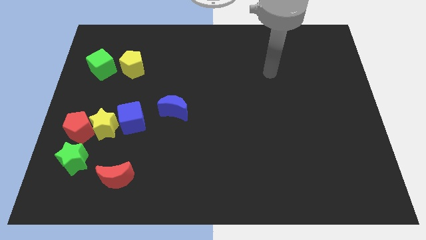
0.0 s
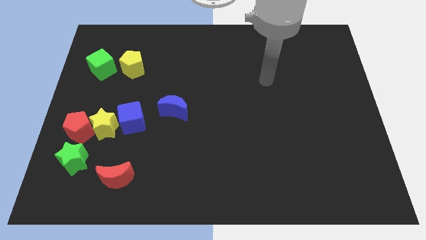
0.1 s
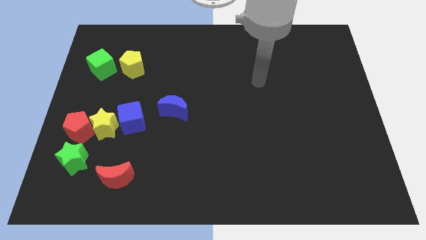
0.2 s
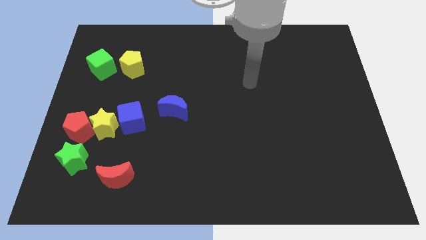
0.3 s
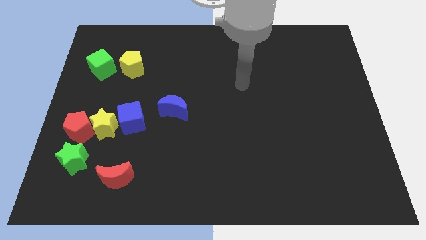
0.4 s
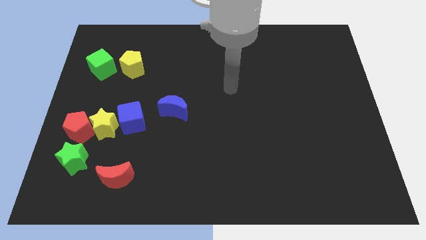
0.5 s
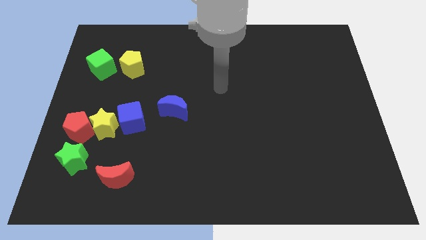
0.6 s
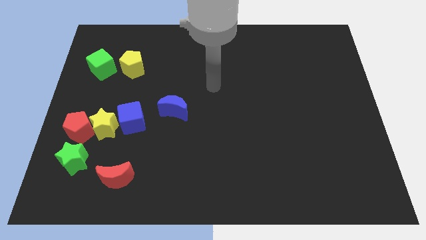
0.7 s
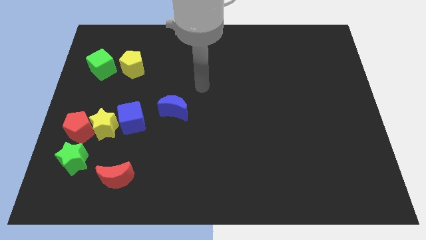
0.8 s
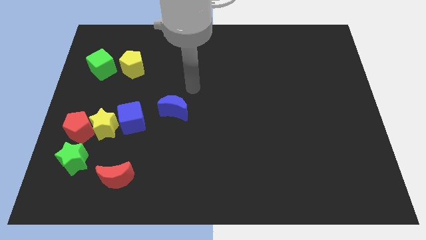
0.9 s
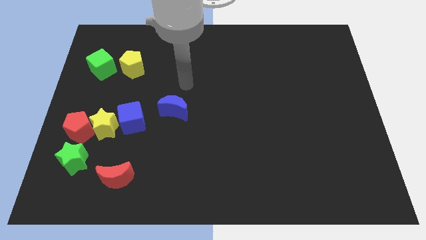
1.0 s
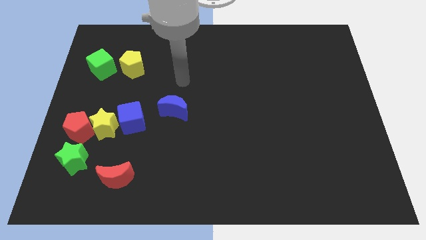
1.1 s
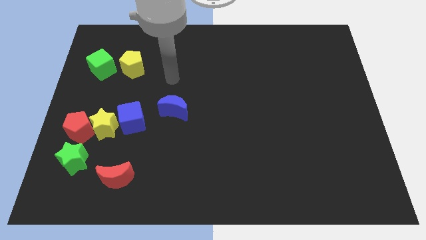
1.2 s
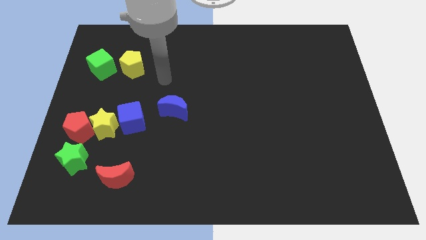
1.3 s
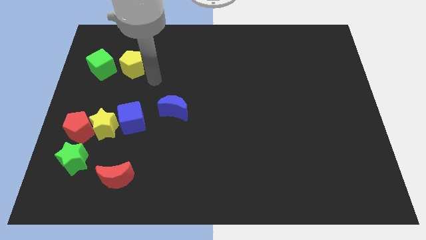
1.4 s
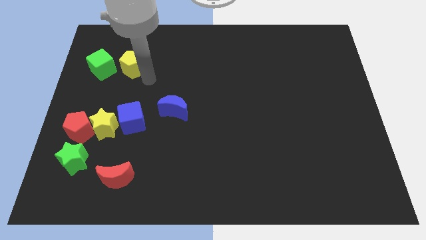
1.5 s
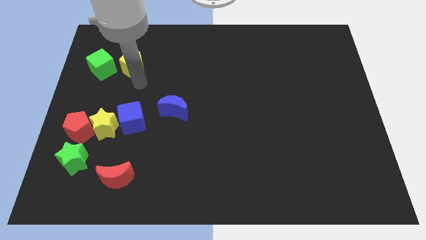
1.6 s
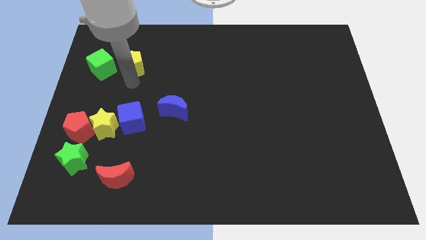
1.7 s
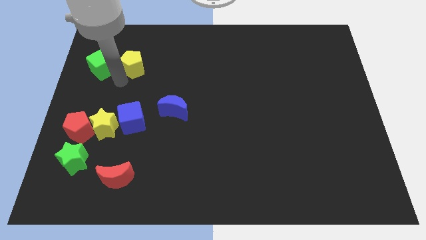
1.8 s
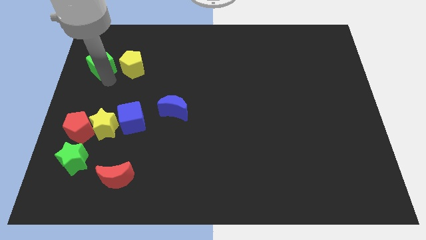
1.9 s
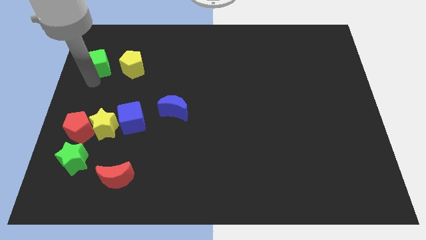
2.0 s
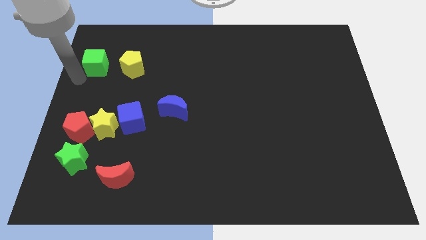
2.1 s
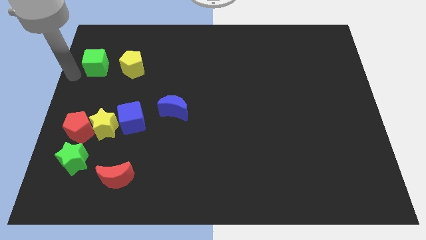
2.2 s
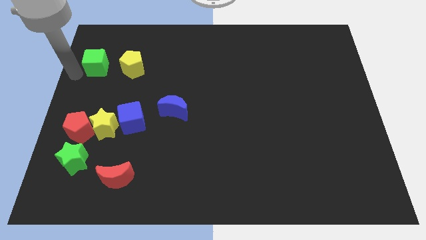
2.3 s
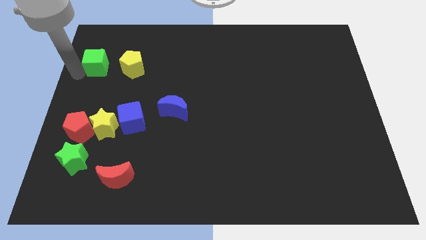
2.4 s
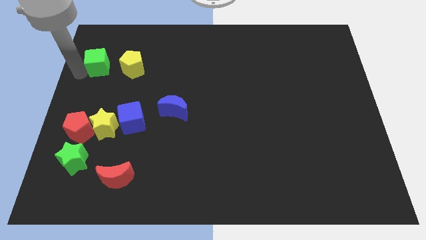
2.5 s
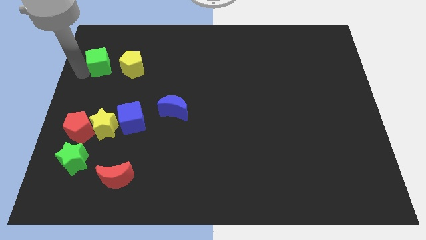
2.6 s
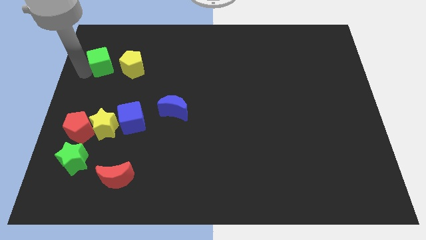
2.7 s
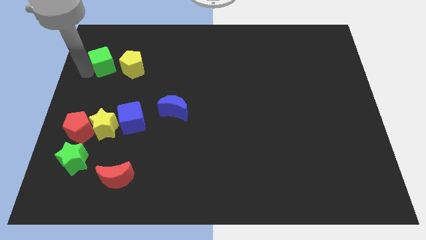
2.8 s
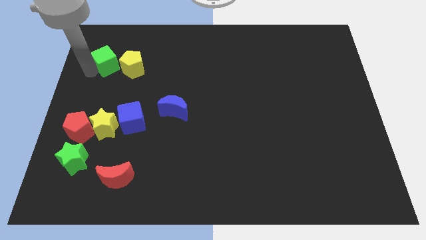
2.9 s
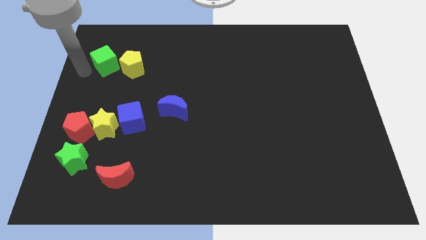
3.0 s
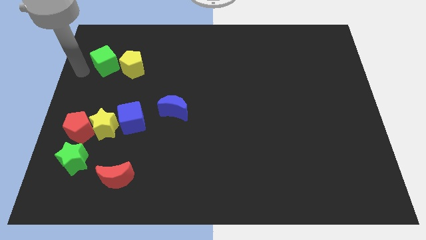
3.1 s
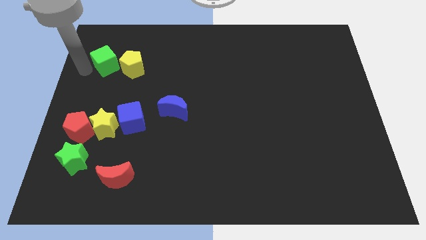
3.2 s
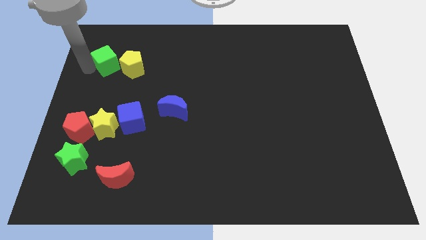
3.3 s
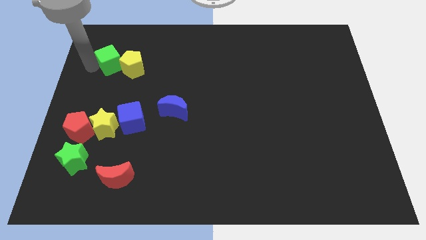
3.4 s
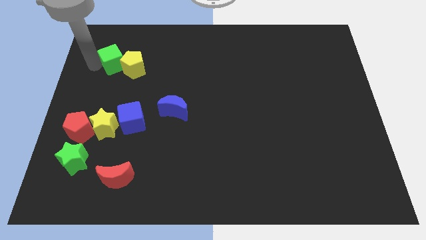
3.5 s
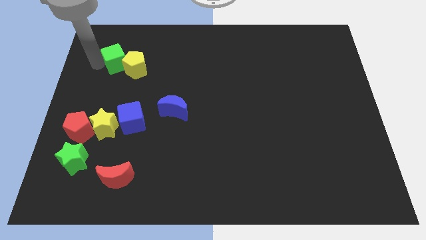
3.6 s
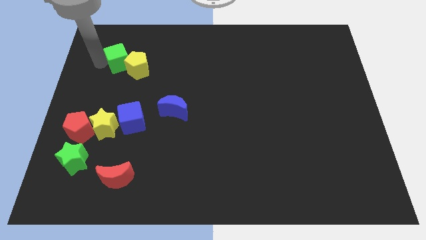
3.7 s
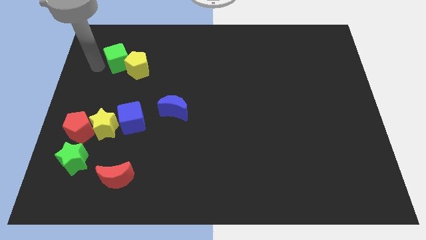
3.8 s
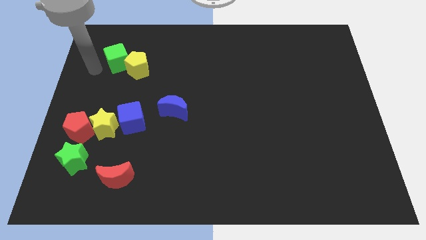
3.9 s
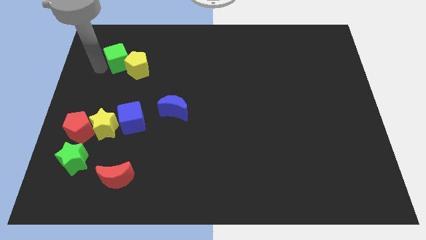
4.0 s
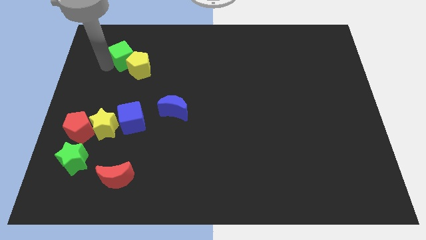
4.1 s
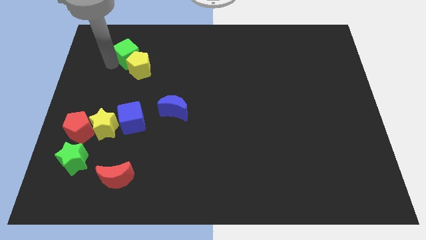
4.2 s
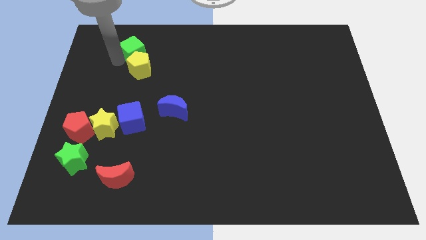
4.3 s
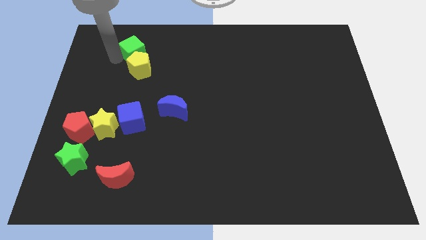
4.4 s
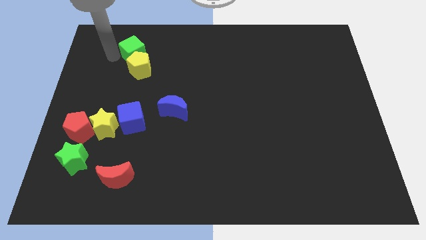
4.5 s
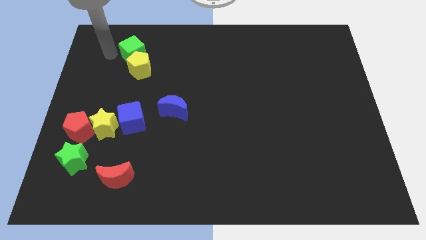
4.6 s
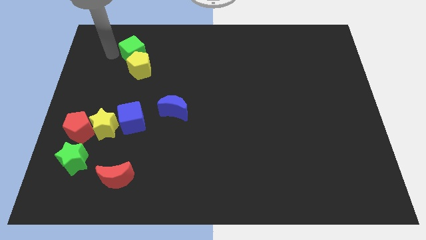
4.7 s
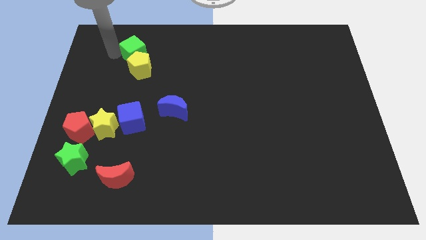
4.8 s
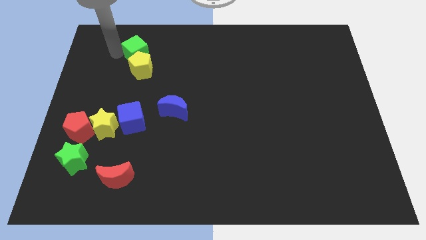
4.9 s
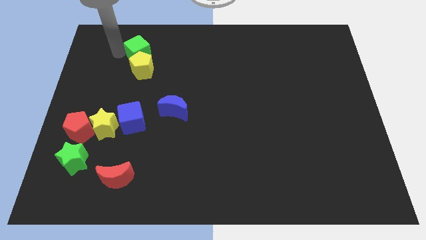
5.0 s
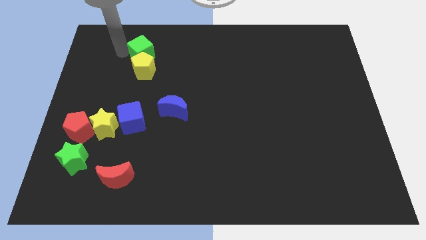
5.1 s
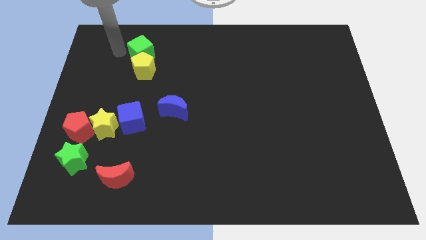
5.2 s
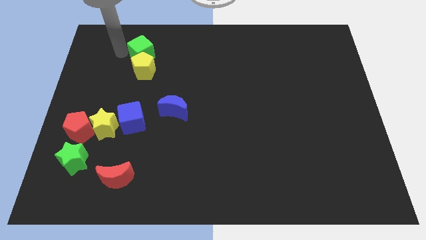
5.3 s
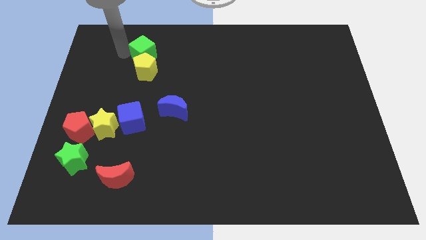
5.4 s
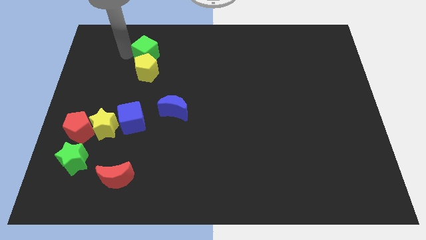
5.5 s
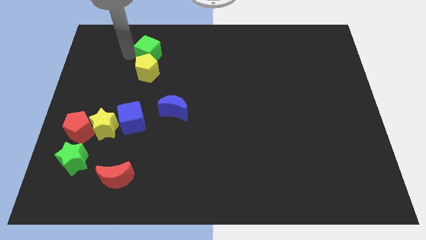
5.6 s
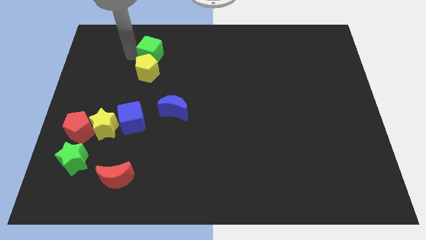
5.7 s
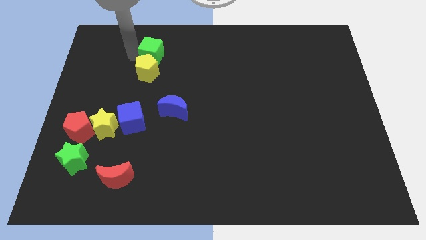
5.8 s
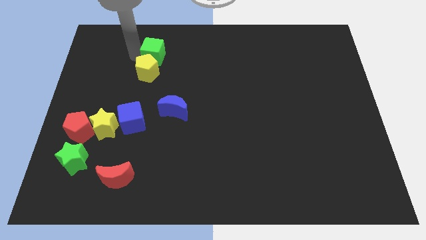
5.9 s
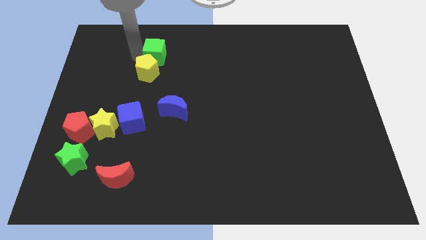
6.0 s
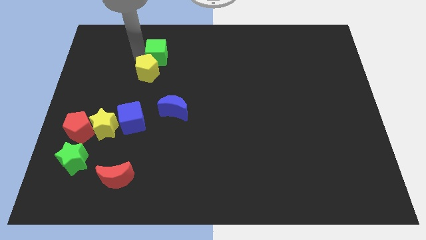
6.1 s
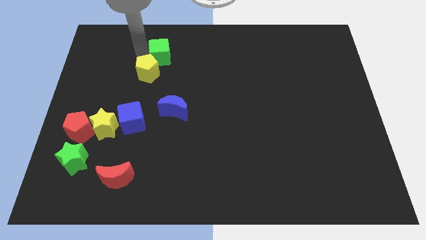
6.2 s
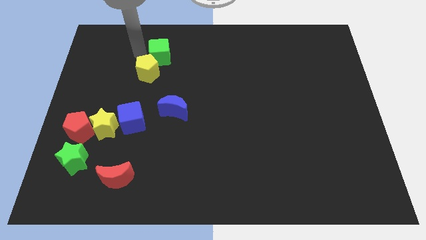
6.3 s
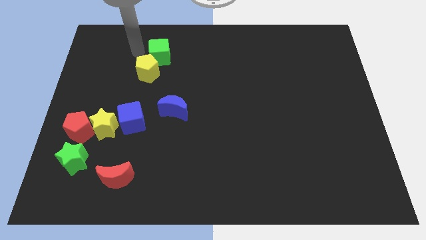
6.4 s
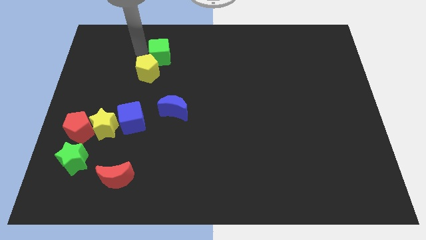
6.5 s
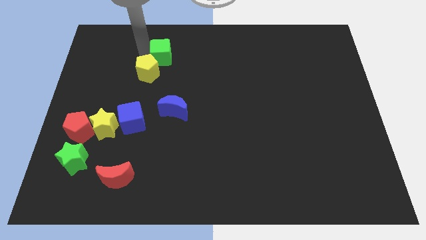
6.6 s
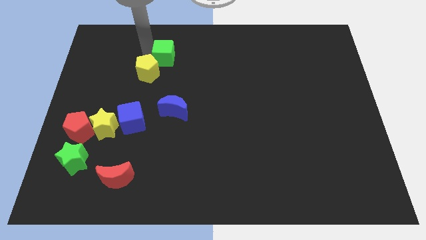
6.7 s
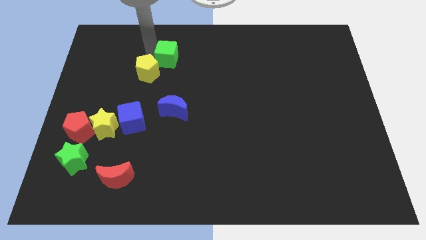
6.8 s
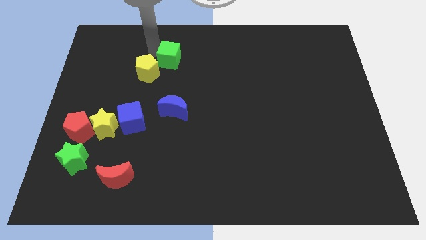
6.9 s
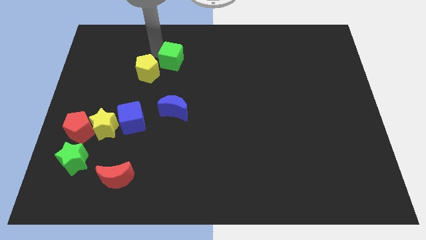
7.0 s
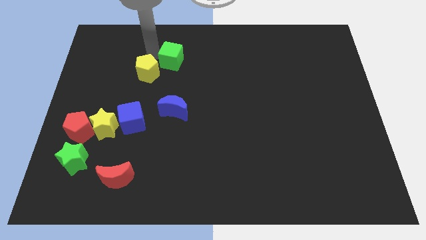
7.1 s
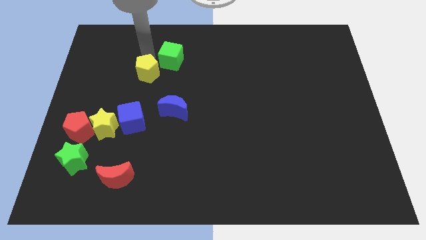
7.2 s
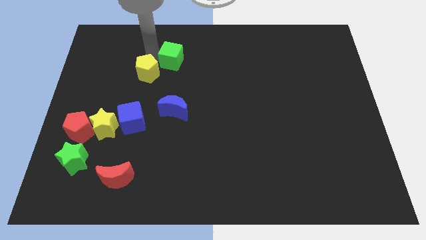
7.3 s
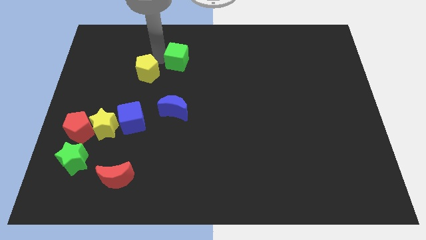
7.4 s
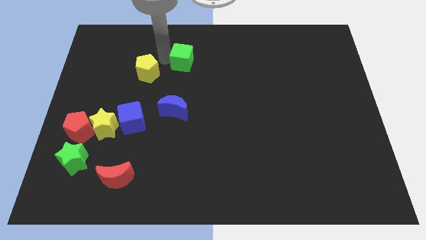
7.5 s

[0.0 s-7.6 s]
slide the green cube to the right
